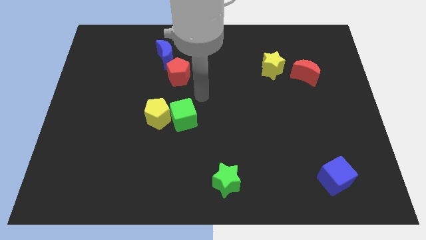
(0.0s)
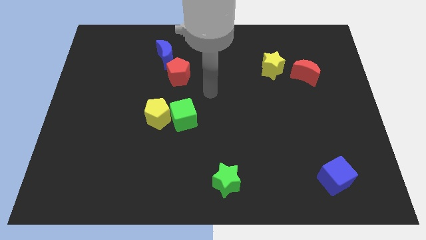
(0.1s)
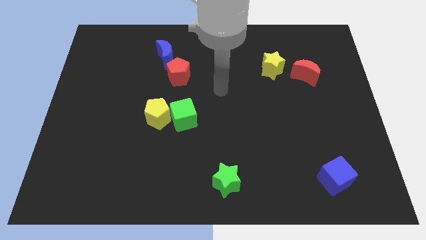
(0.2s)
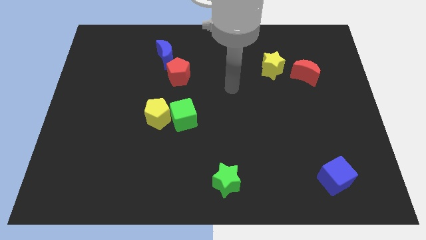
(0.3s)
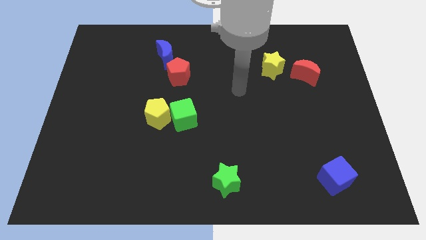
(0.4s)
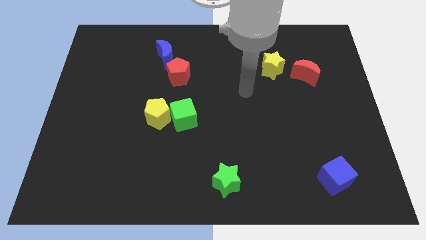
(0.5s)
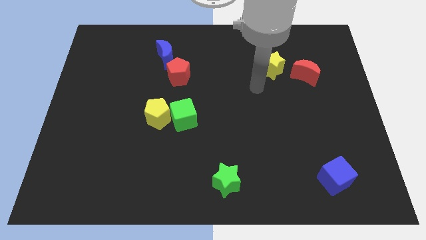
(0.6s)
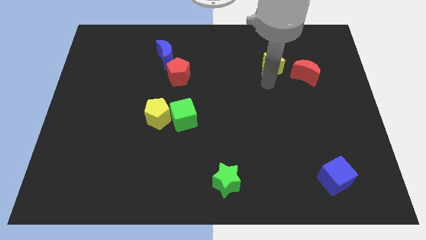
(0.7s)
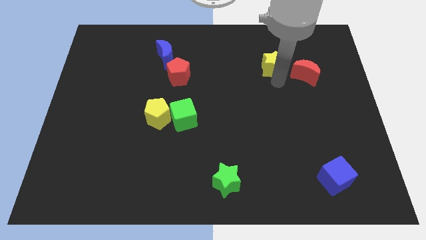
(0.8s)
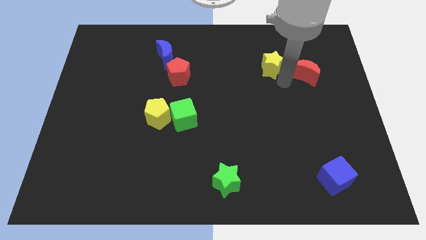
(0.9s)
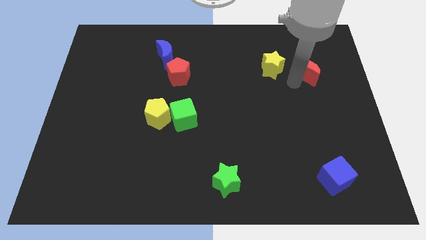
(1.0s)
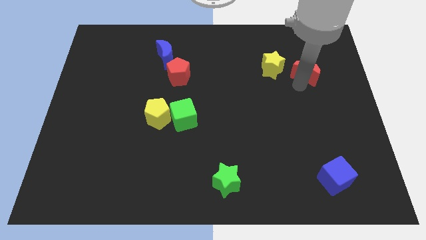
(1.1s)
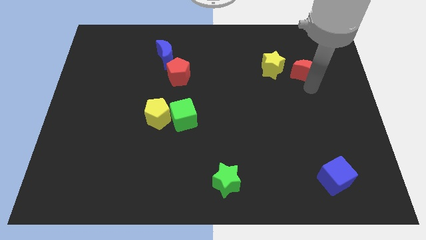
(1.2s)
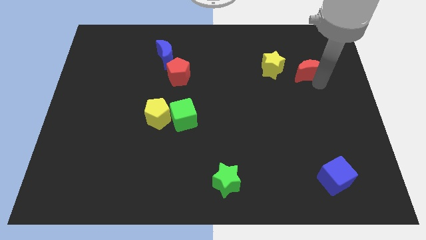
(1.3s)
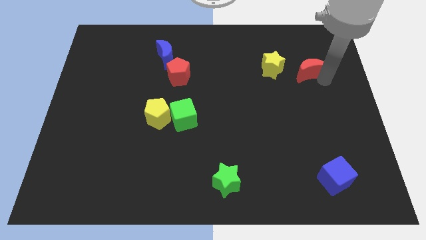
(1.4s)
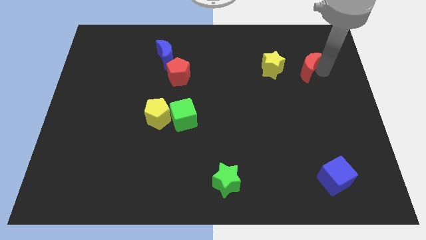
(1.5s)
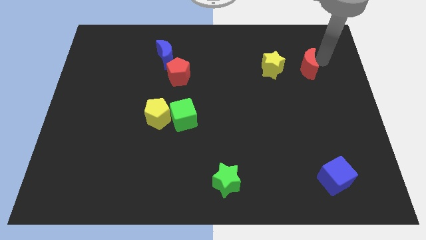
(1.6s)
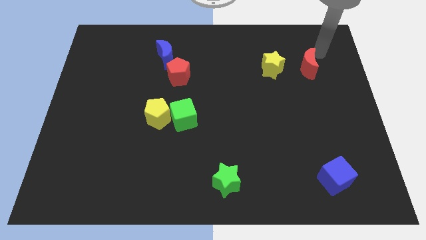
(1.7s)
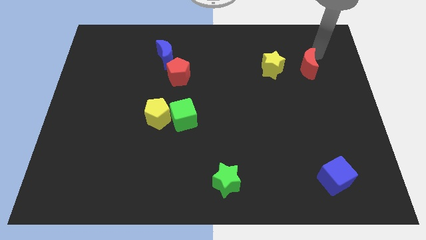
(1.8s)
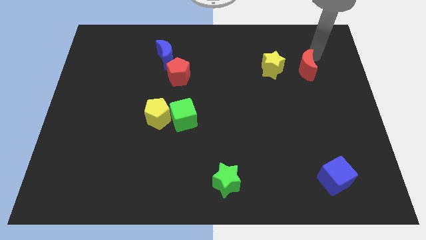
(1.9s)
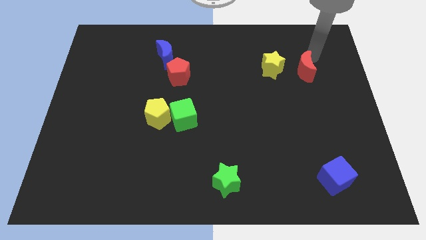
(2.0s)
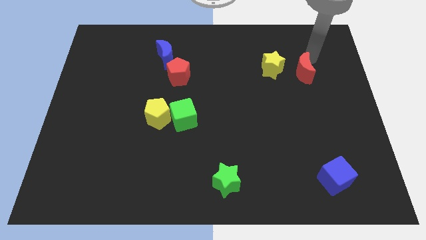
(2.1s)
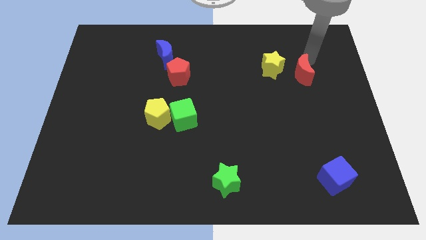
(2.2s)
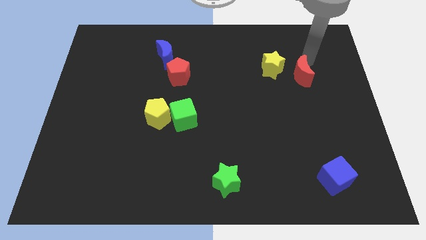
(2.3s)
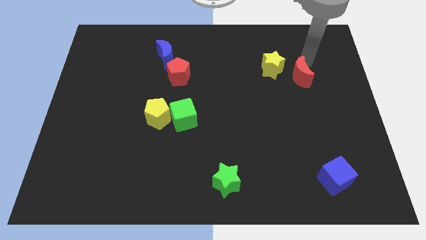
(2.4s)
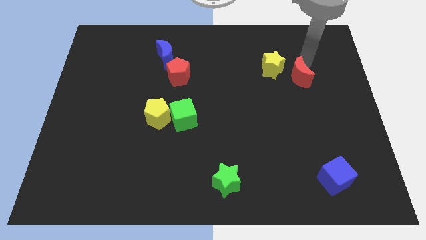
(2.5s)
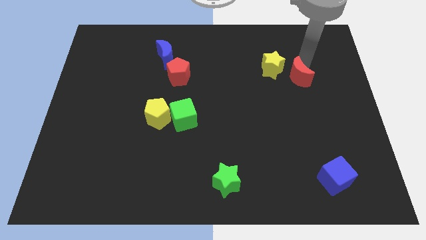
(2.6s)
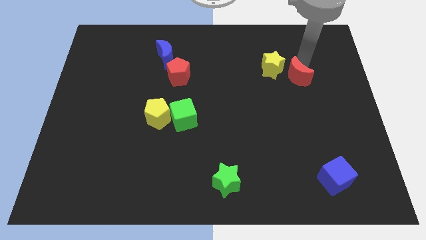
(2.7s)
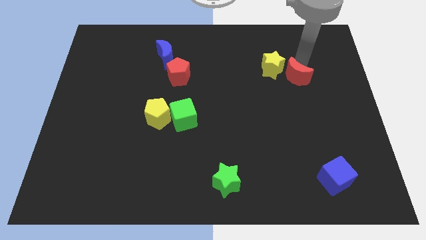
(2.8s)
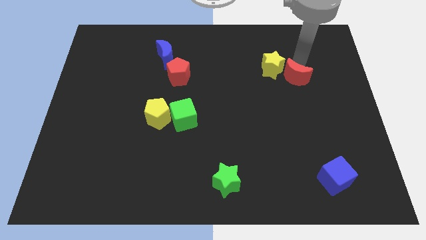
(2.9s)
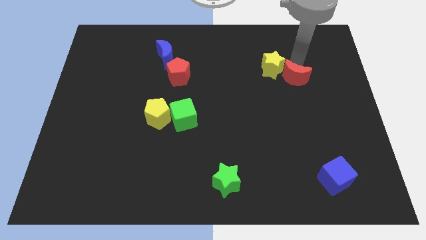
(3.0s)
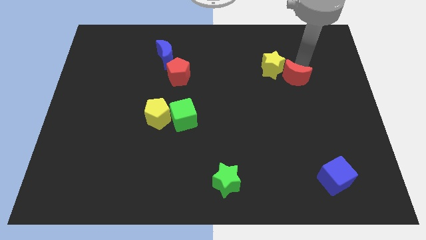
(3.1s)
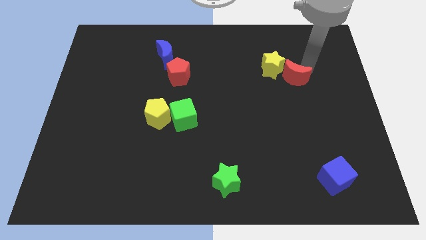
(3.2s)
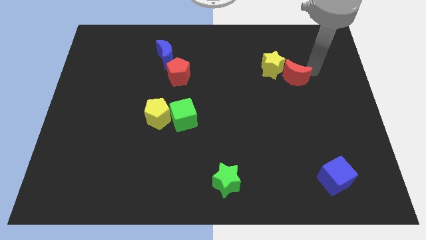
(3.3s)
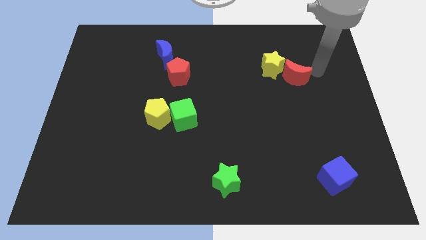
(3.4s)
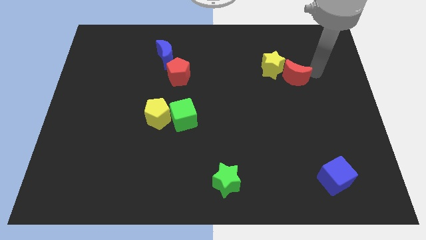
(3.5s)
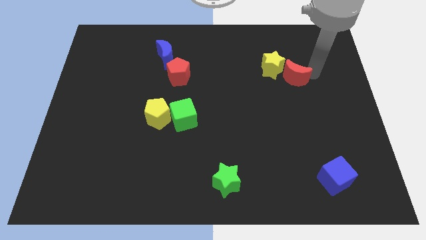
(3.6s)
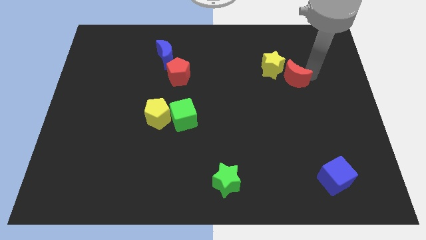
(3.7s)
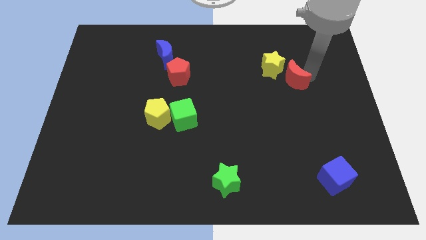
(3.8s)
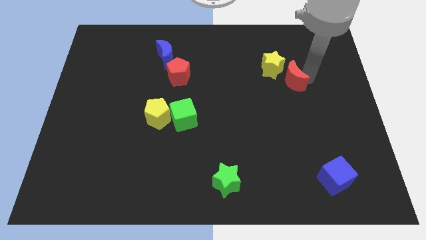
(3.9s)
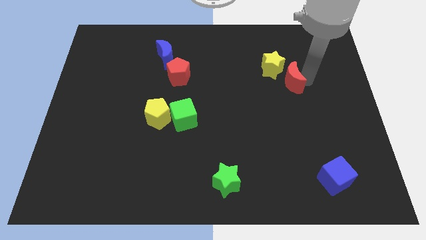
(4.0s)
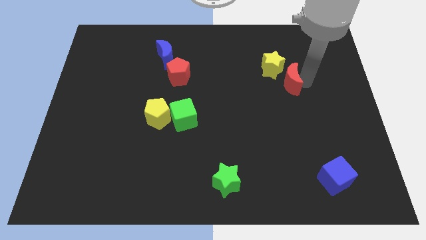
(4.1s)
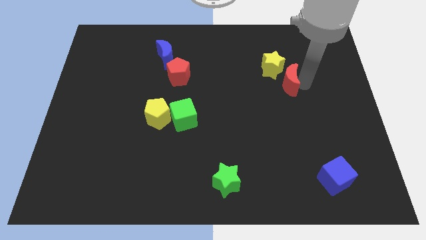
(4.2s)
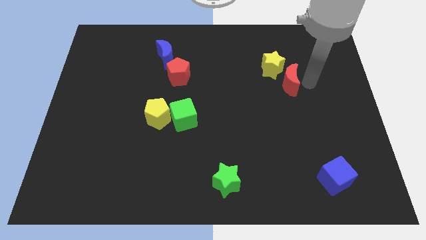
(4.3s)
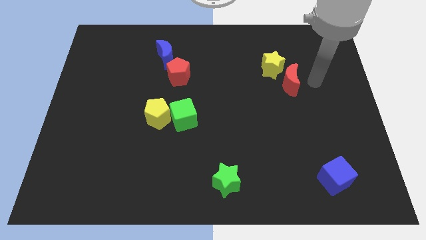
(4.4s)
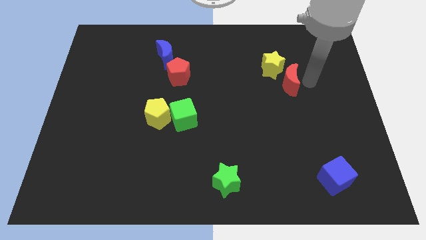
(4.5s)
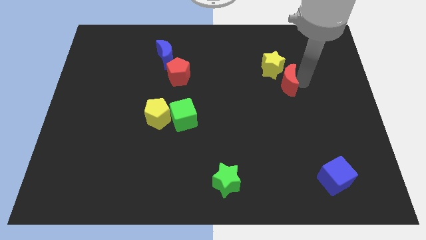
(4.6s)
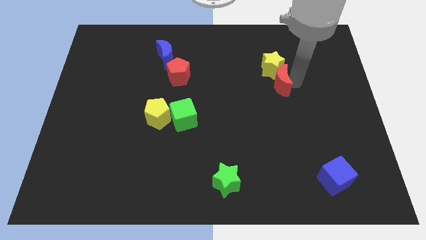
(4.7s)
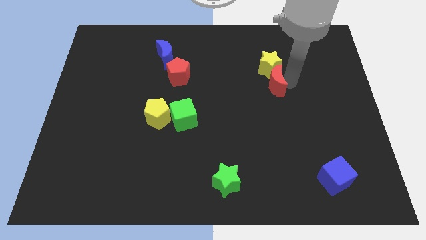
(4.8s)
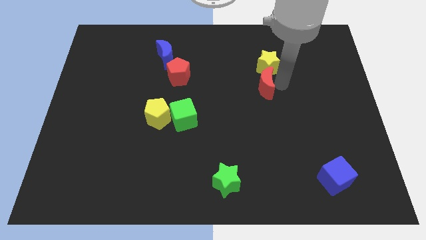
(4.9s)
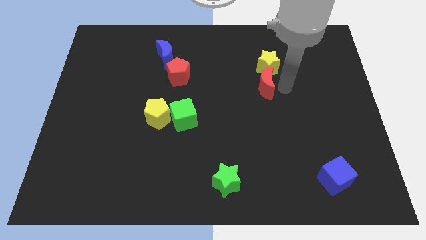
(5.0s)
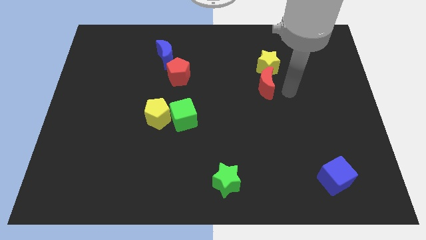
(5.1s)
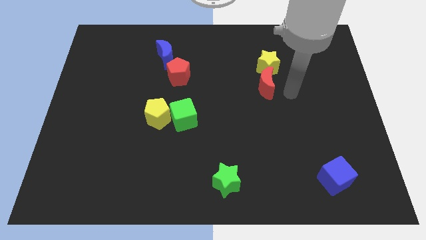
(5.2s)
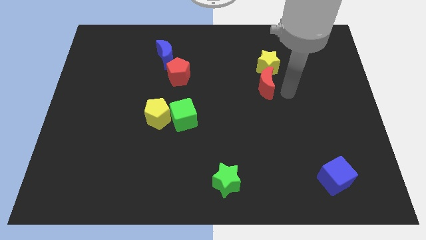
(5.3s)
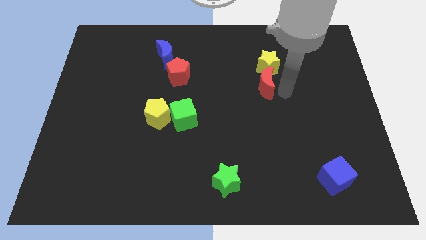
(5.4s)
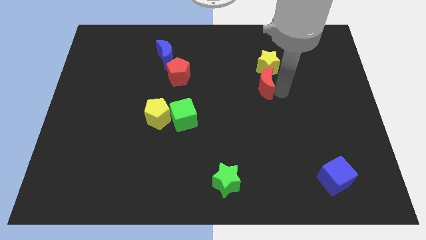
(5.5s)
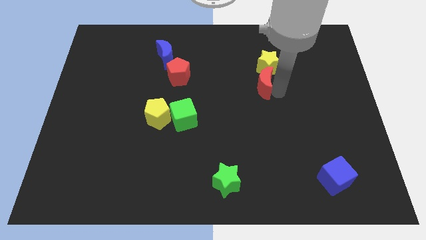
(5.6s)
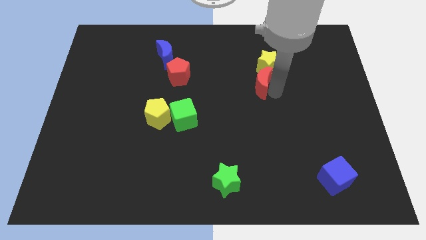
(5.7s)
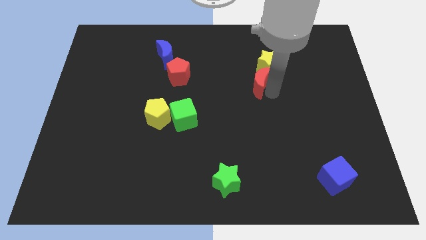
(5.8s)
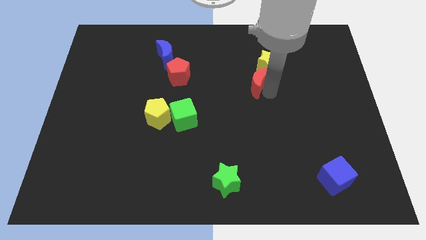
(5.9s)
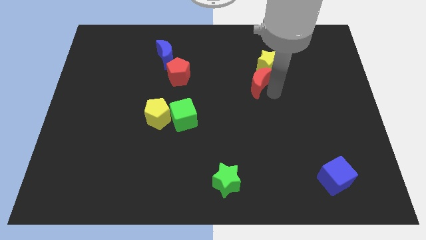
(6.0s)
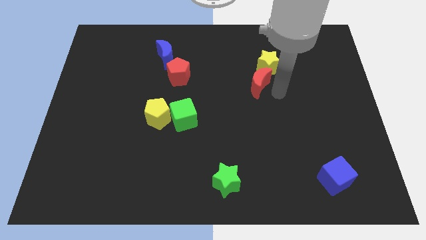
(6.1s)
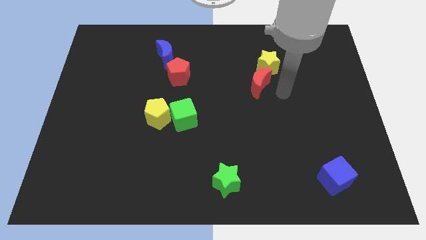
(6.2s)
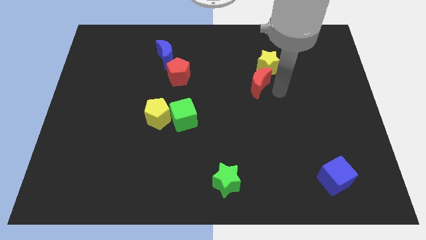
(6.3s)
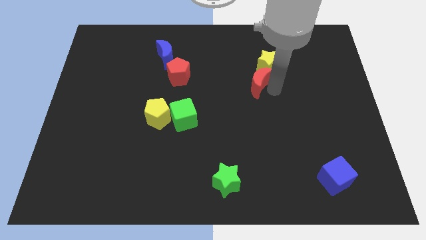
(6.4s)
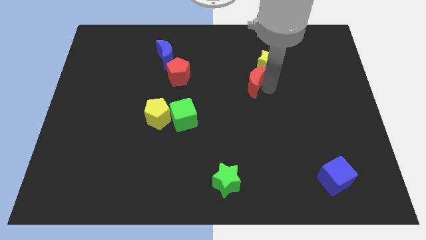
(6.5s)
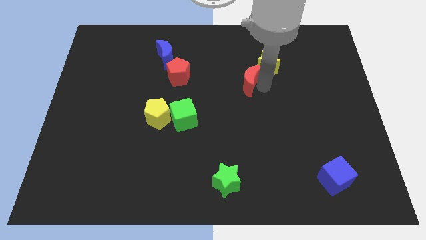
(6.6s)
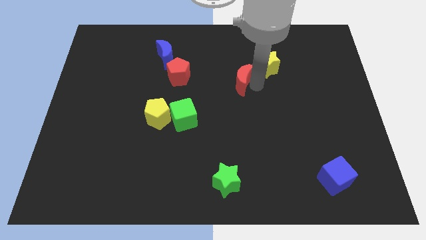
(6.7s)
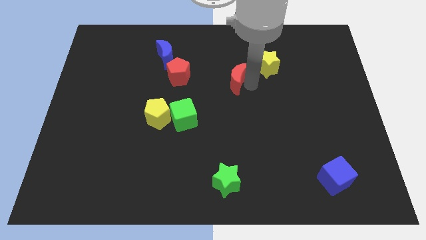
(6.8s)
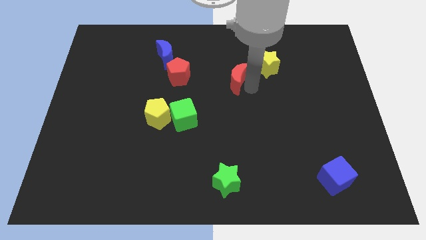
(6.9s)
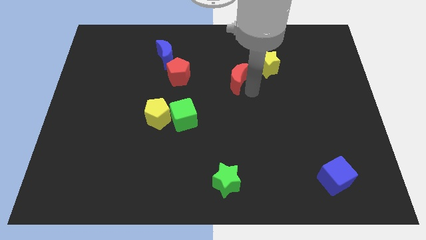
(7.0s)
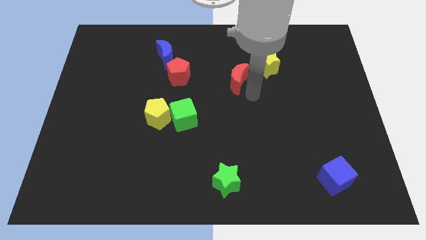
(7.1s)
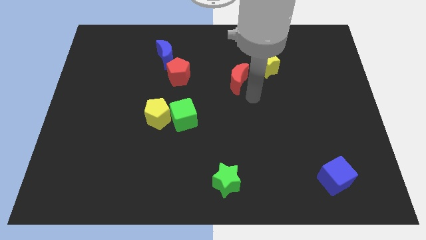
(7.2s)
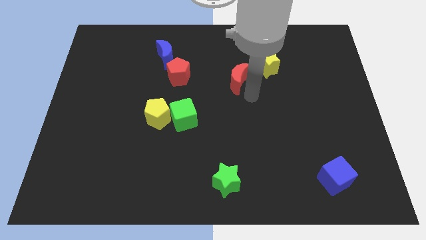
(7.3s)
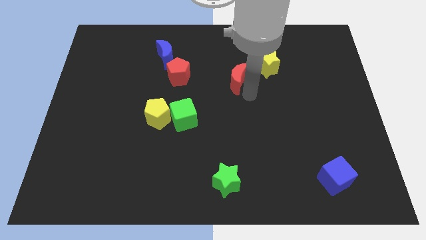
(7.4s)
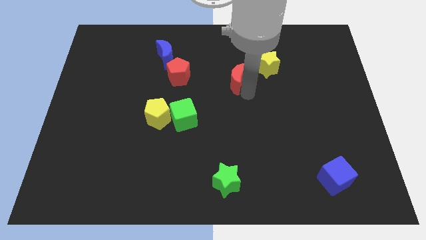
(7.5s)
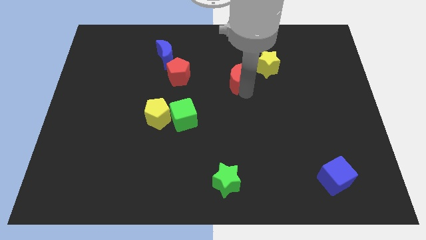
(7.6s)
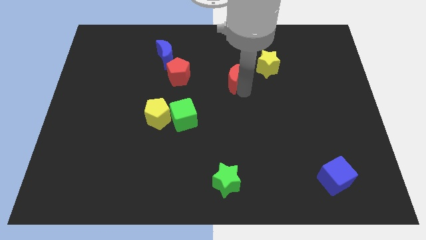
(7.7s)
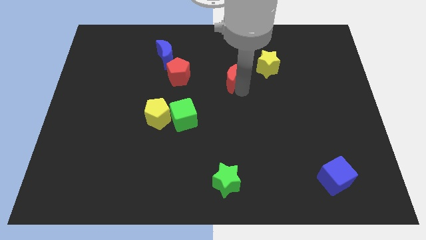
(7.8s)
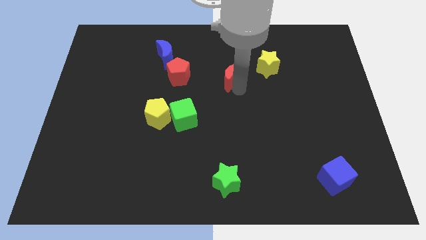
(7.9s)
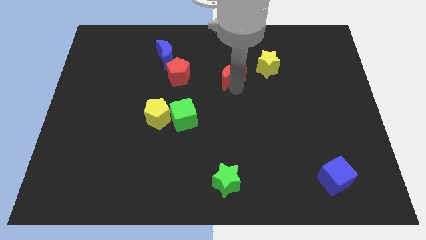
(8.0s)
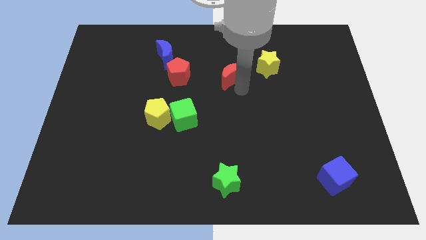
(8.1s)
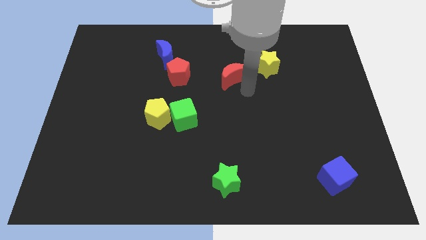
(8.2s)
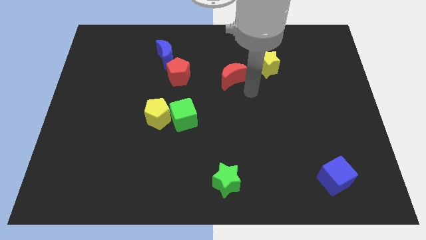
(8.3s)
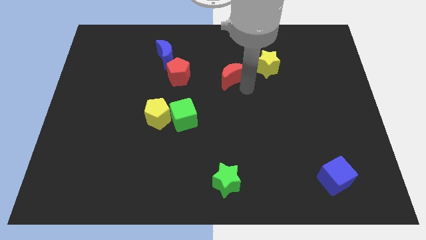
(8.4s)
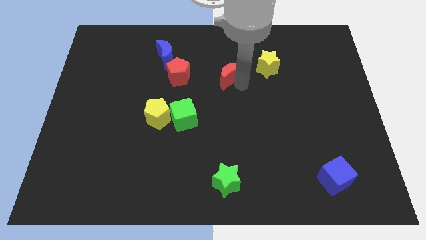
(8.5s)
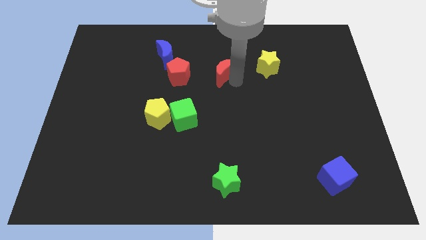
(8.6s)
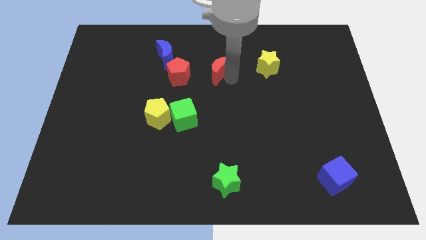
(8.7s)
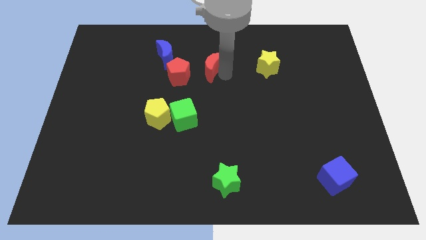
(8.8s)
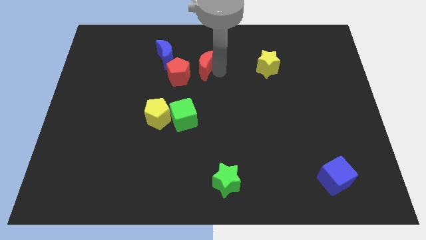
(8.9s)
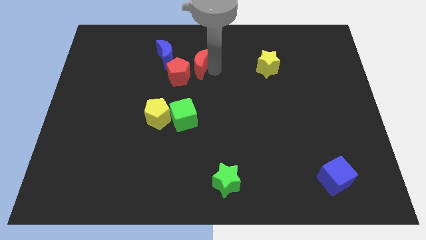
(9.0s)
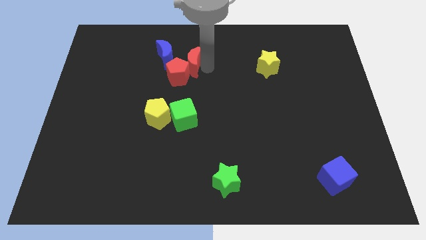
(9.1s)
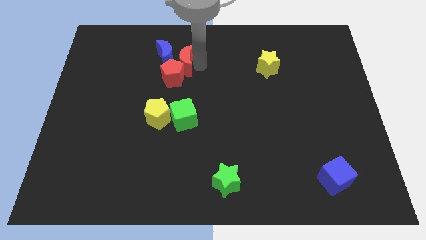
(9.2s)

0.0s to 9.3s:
push the red moon next to the blue moon
